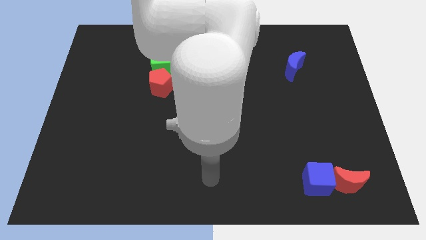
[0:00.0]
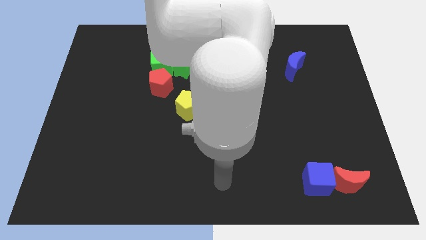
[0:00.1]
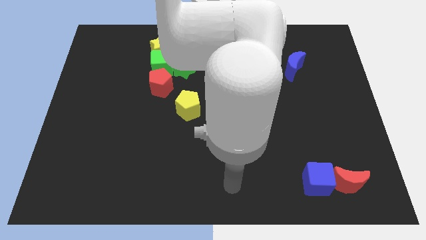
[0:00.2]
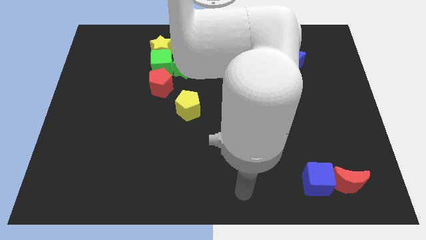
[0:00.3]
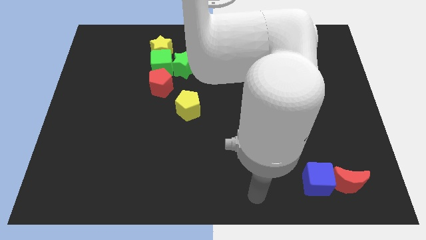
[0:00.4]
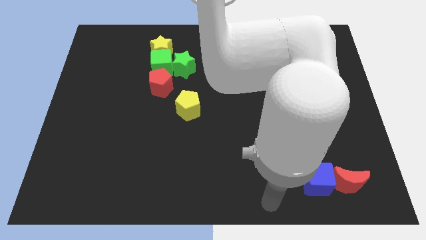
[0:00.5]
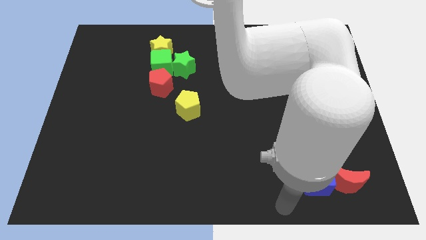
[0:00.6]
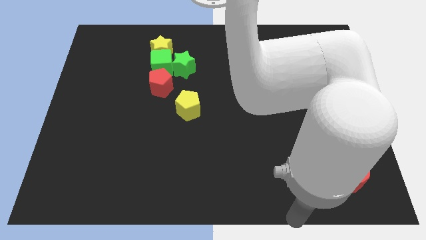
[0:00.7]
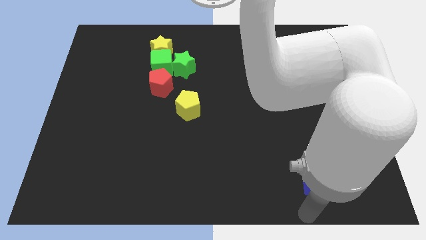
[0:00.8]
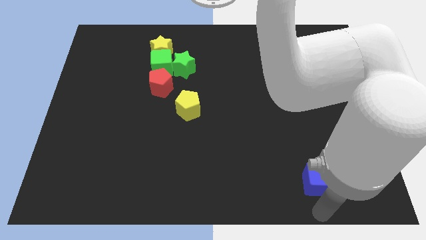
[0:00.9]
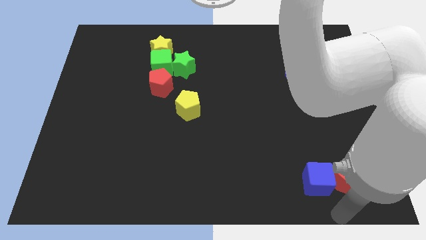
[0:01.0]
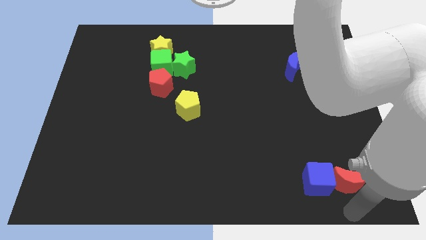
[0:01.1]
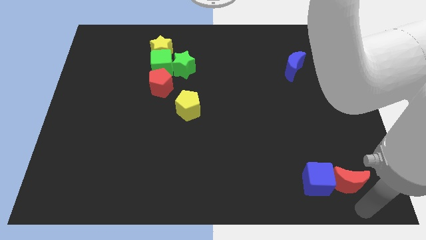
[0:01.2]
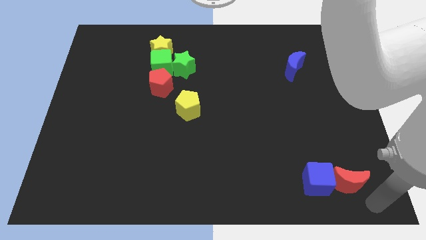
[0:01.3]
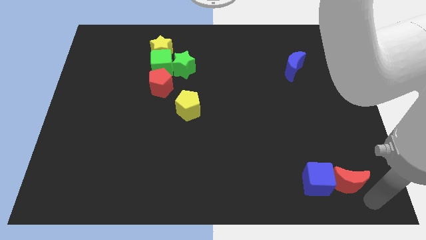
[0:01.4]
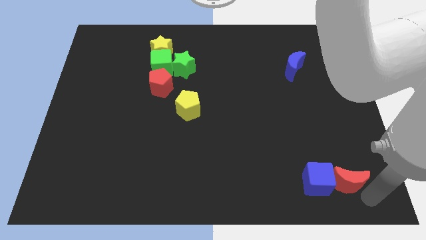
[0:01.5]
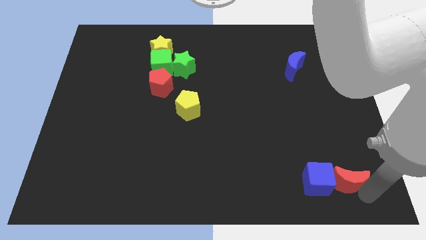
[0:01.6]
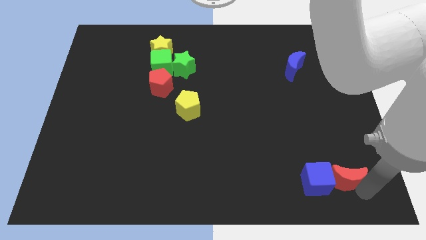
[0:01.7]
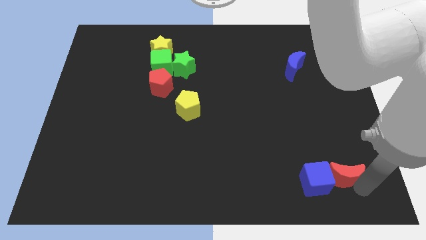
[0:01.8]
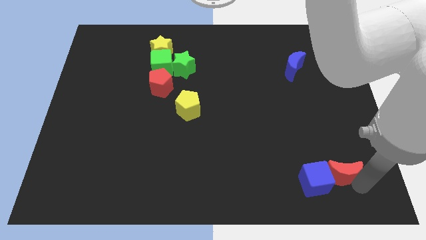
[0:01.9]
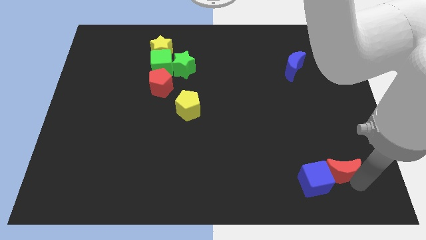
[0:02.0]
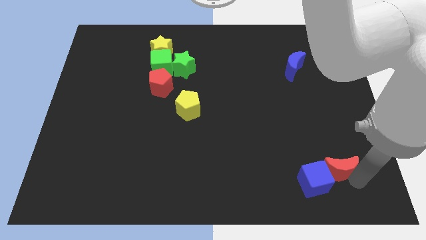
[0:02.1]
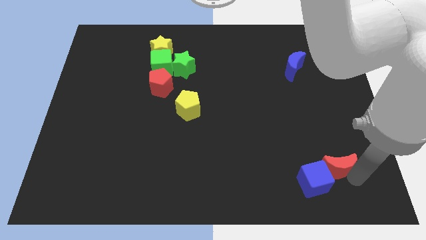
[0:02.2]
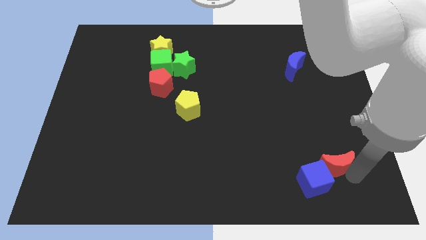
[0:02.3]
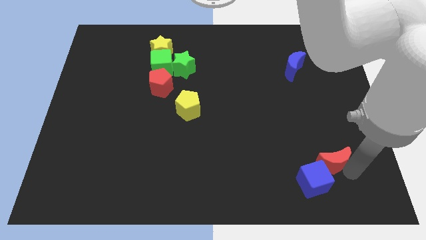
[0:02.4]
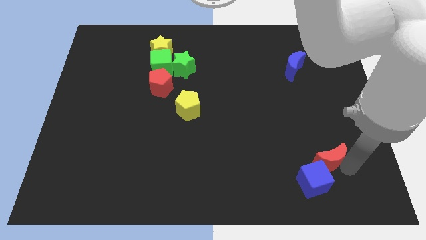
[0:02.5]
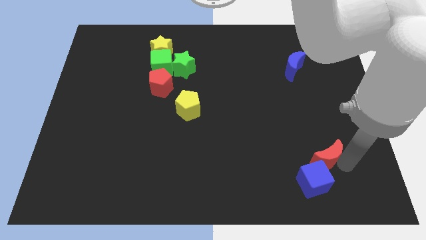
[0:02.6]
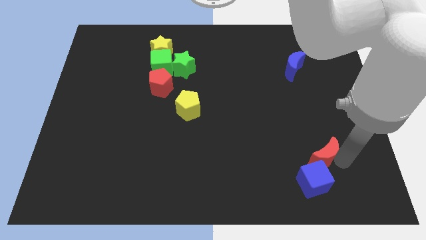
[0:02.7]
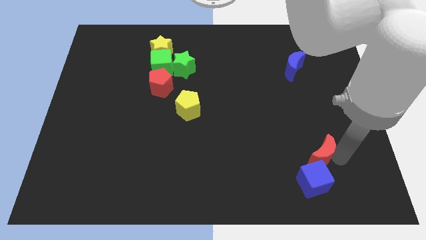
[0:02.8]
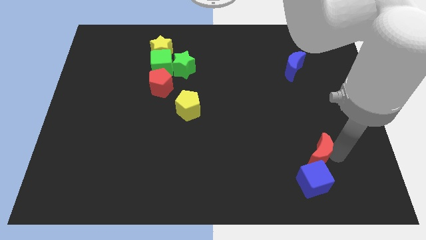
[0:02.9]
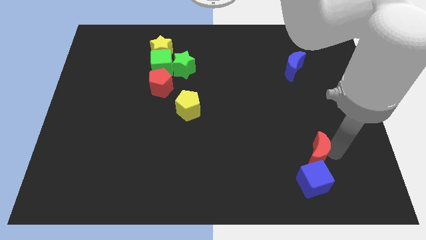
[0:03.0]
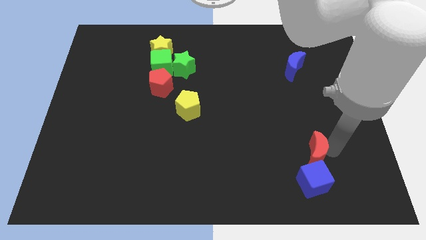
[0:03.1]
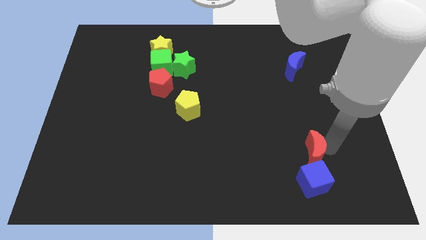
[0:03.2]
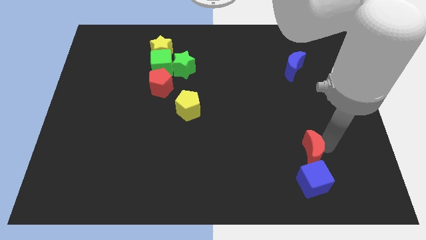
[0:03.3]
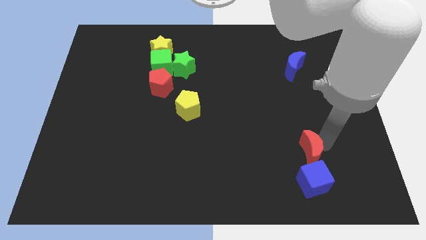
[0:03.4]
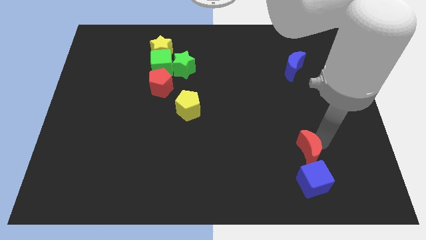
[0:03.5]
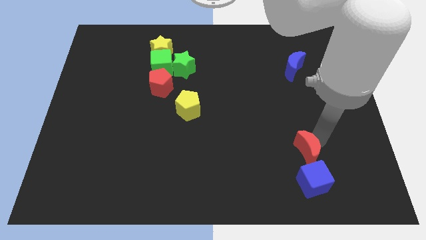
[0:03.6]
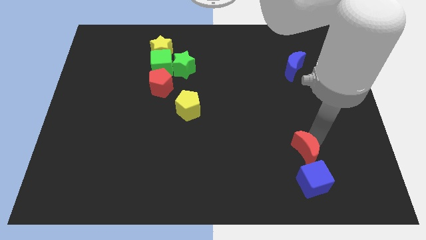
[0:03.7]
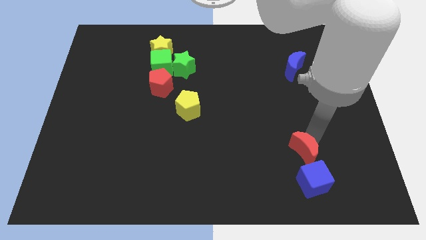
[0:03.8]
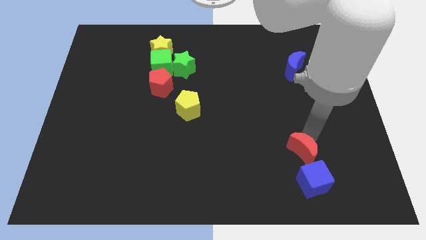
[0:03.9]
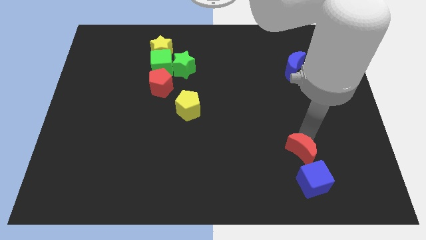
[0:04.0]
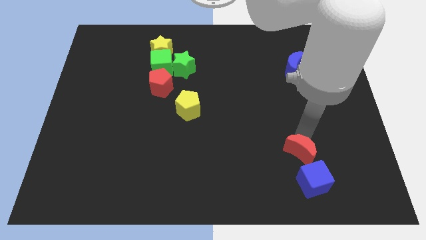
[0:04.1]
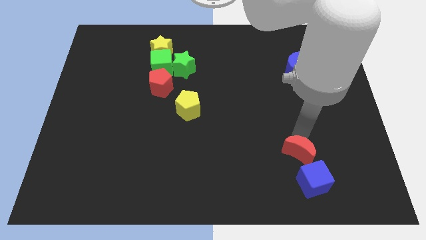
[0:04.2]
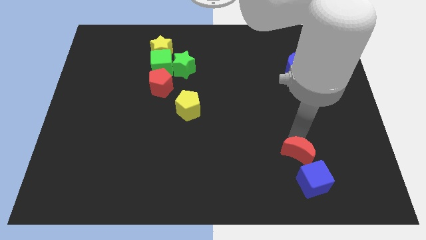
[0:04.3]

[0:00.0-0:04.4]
move the red moon to the left a bit

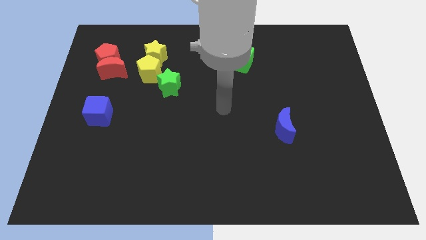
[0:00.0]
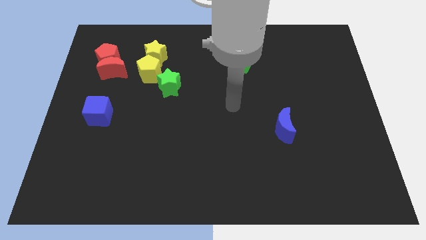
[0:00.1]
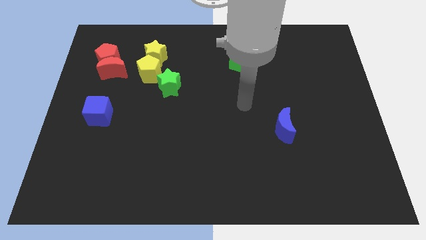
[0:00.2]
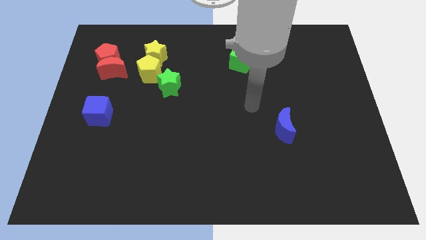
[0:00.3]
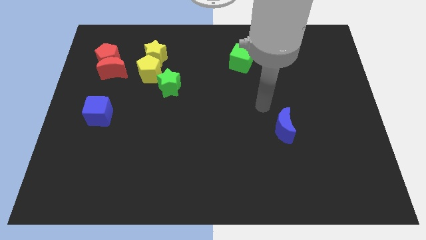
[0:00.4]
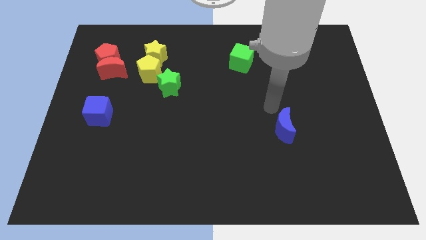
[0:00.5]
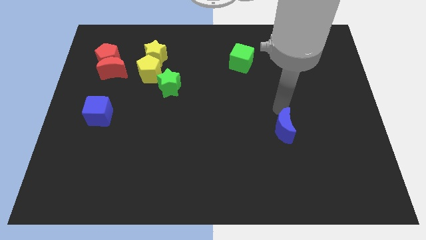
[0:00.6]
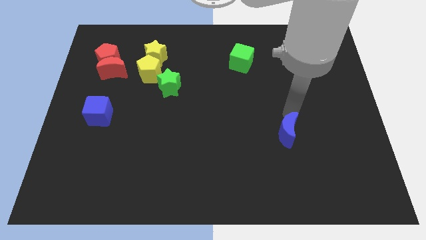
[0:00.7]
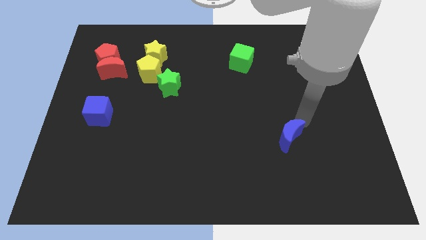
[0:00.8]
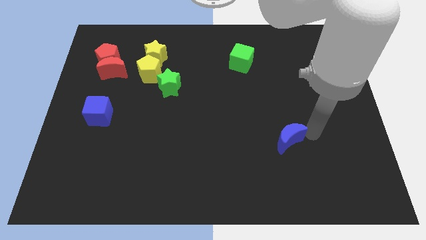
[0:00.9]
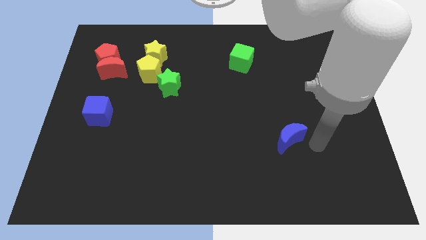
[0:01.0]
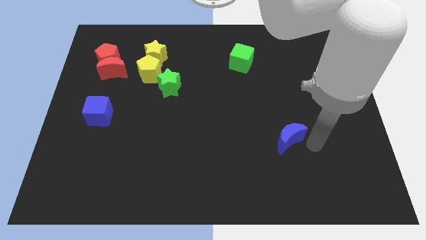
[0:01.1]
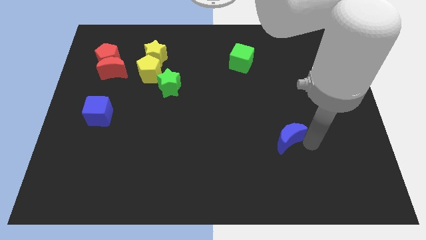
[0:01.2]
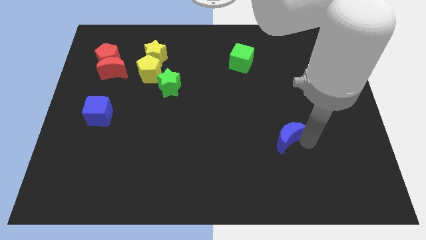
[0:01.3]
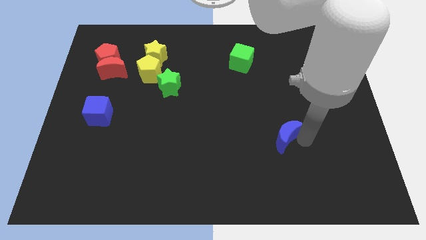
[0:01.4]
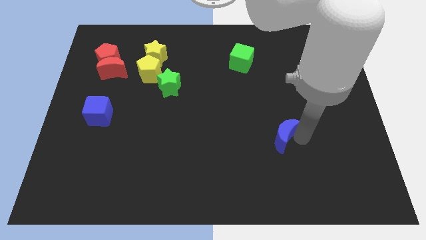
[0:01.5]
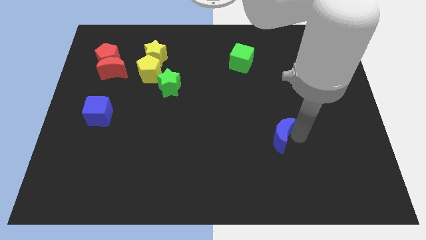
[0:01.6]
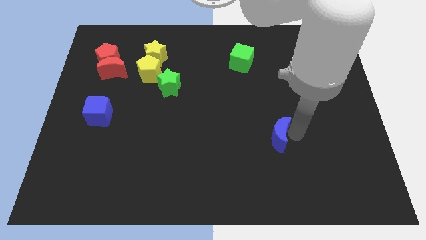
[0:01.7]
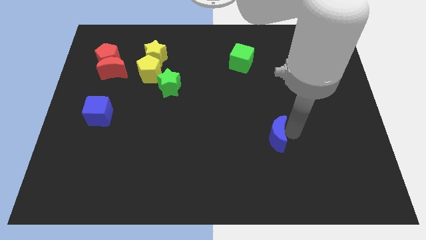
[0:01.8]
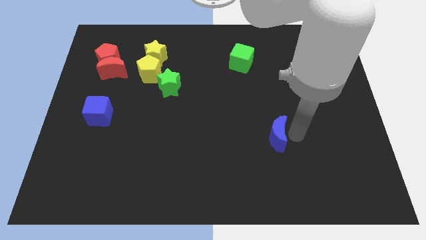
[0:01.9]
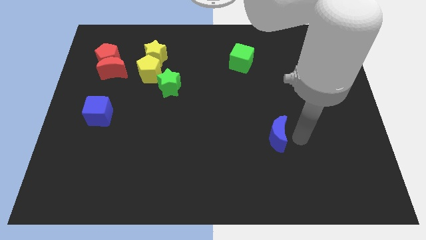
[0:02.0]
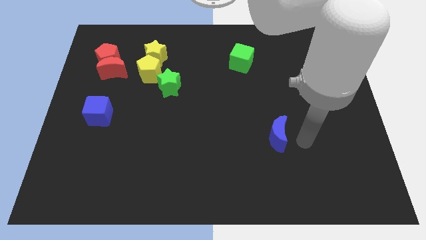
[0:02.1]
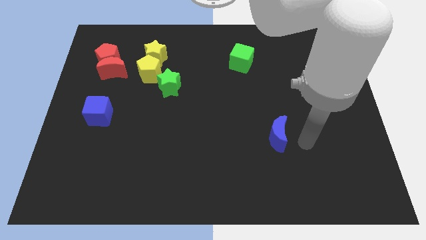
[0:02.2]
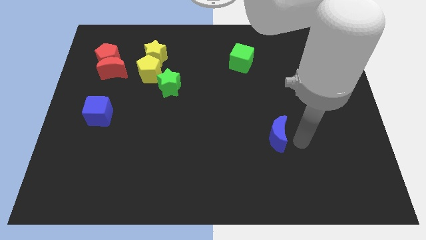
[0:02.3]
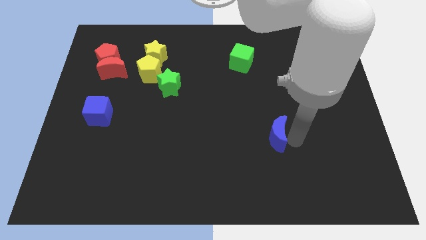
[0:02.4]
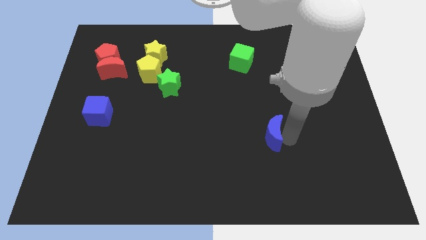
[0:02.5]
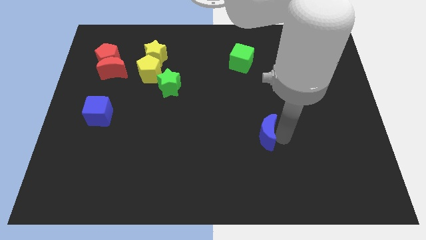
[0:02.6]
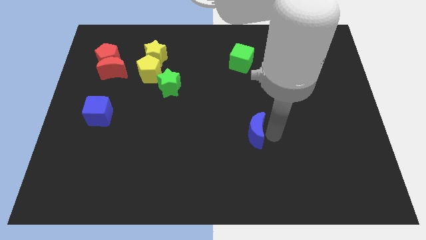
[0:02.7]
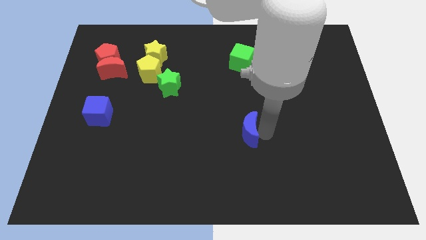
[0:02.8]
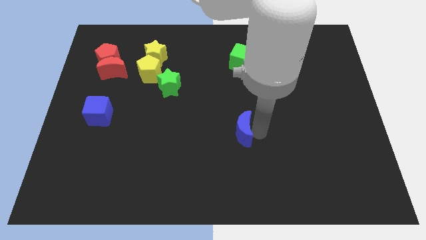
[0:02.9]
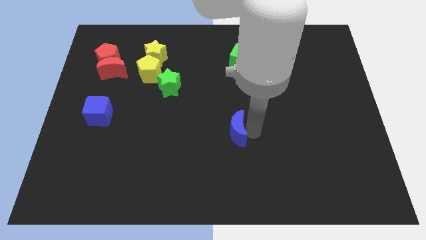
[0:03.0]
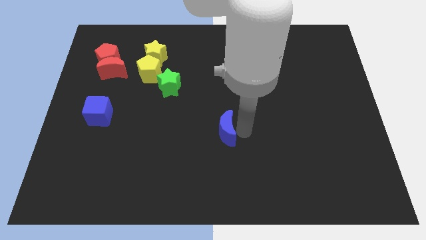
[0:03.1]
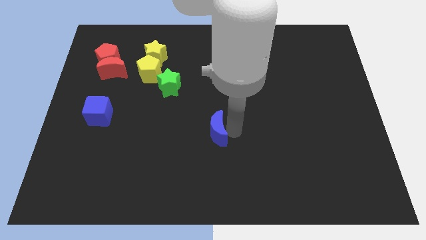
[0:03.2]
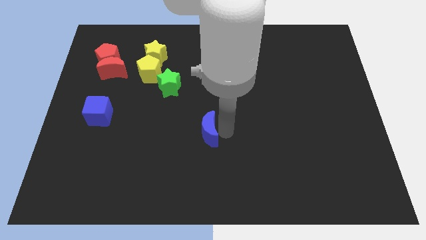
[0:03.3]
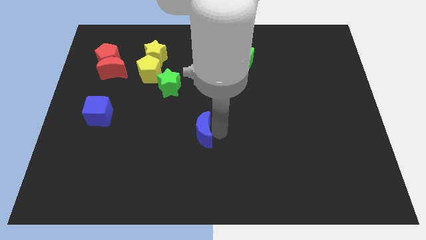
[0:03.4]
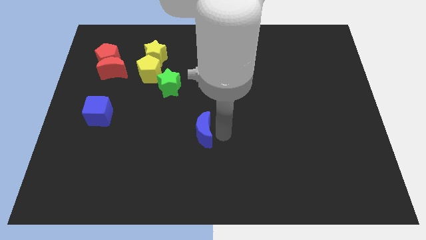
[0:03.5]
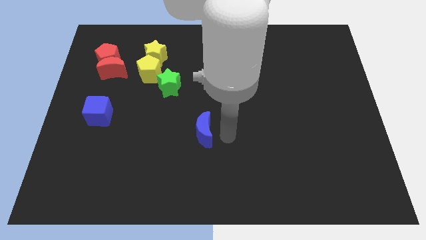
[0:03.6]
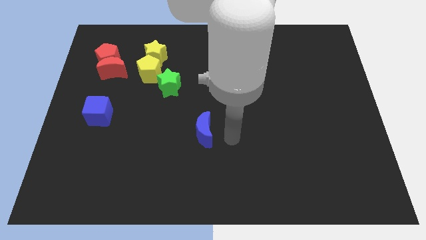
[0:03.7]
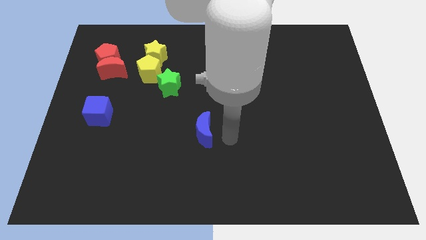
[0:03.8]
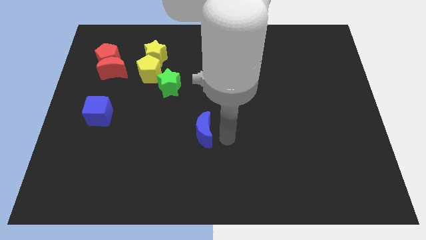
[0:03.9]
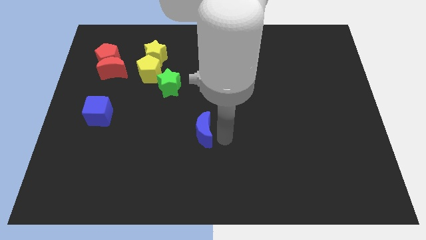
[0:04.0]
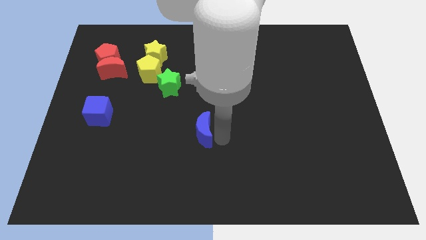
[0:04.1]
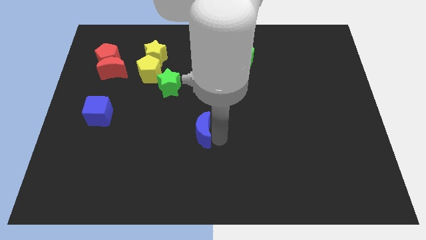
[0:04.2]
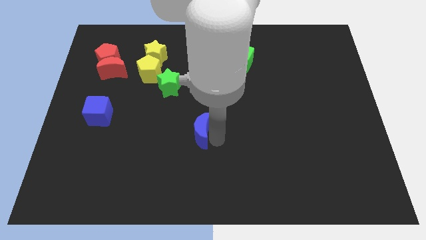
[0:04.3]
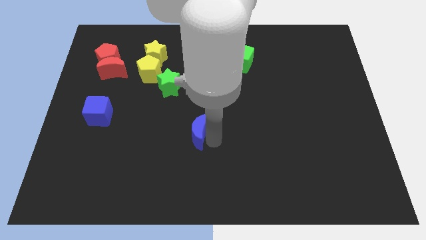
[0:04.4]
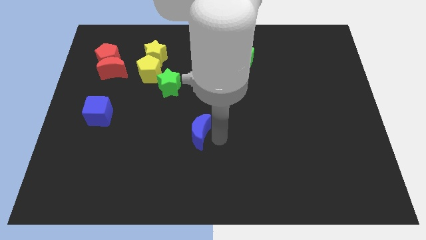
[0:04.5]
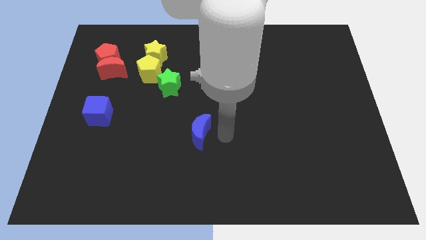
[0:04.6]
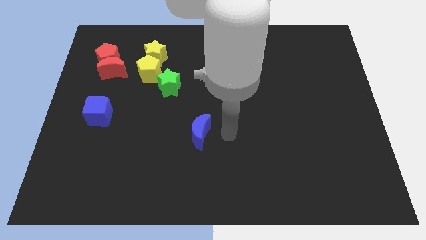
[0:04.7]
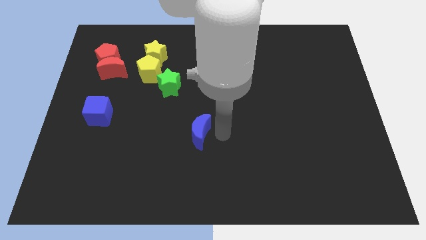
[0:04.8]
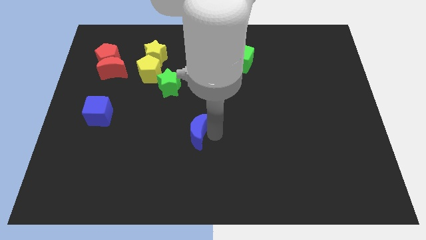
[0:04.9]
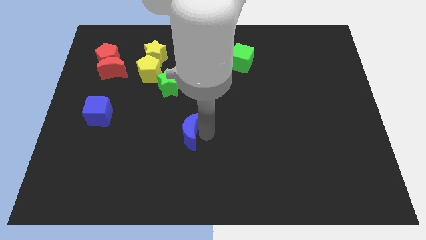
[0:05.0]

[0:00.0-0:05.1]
move the blue moon left
